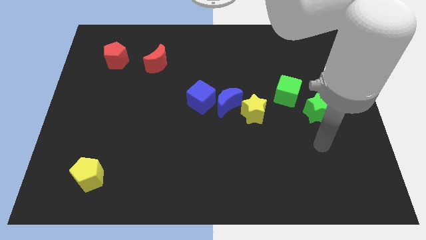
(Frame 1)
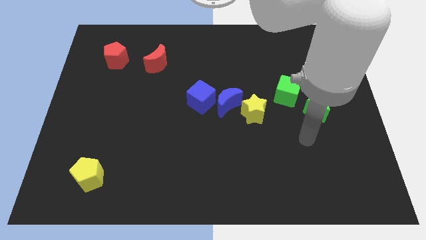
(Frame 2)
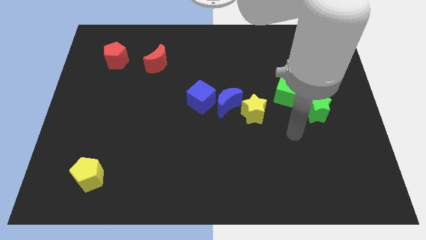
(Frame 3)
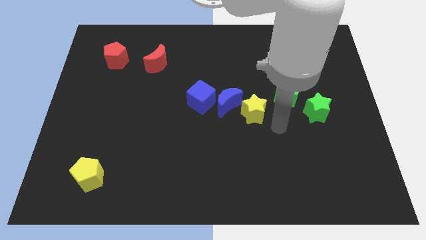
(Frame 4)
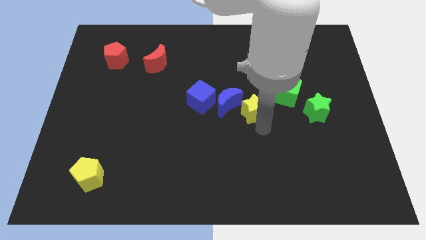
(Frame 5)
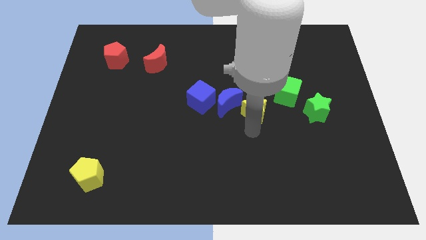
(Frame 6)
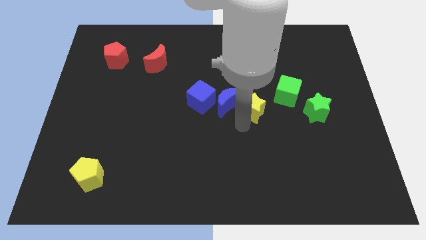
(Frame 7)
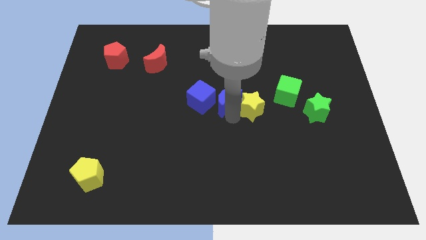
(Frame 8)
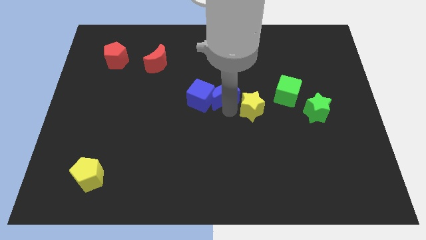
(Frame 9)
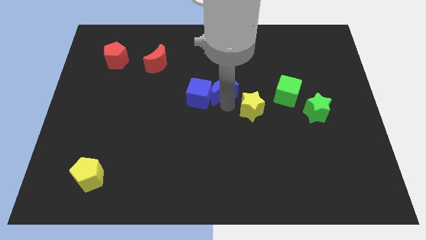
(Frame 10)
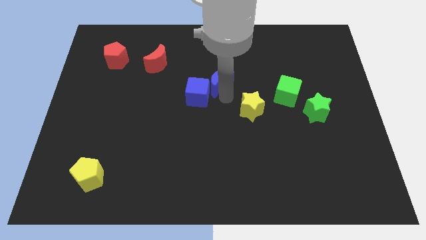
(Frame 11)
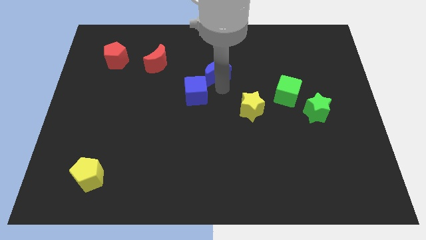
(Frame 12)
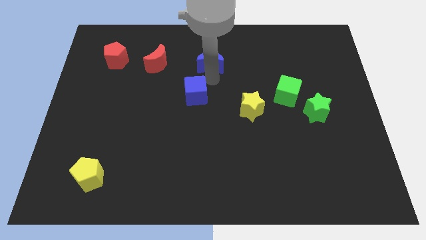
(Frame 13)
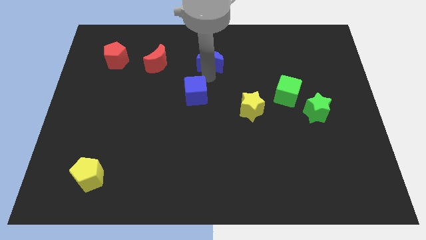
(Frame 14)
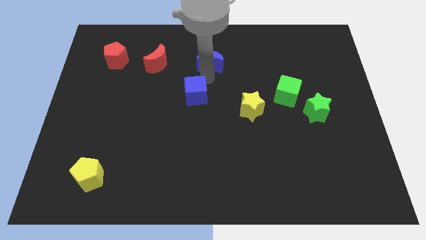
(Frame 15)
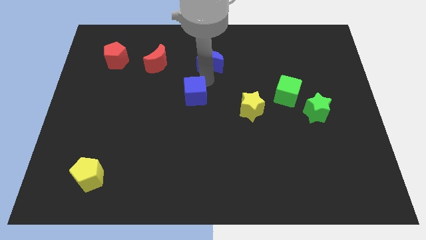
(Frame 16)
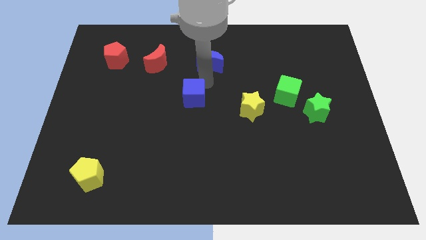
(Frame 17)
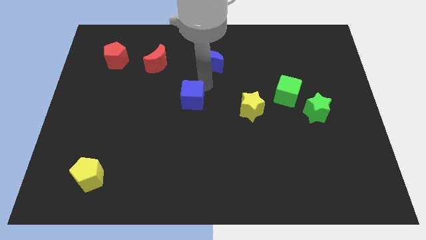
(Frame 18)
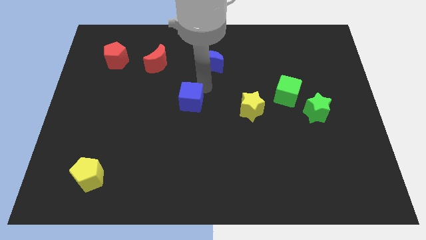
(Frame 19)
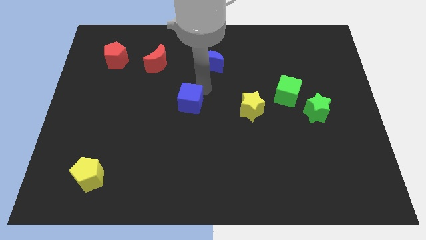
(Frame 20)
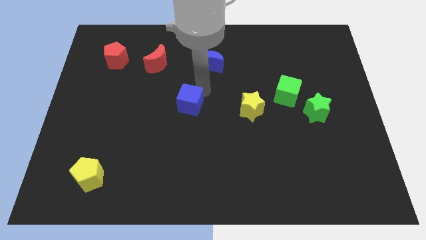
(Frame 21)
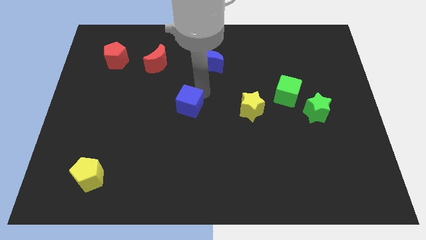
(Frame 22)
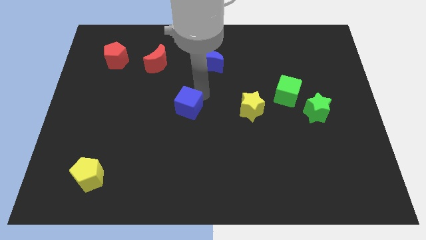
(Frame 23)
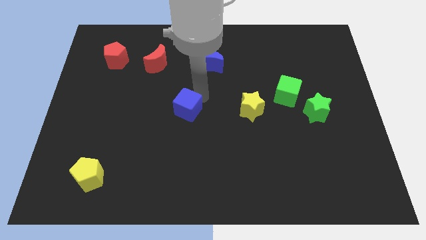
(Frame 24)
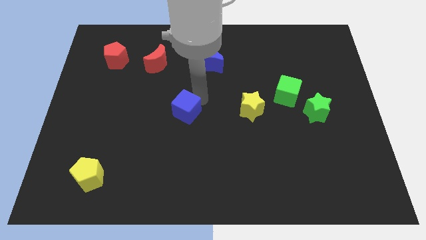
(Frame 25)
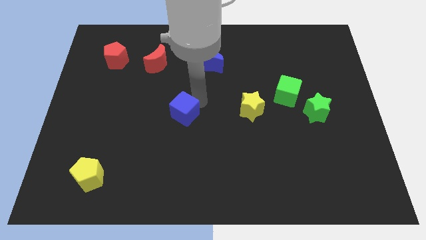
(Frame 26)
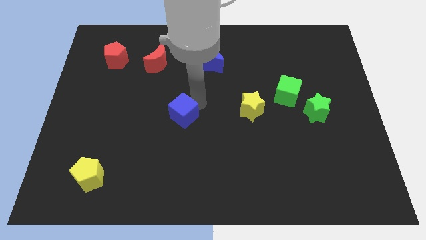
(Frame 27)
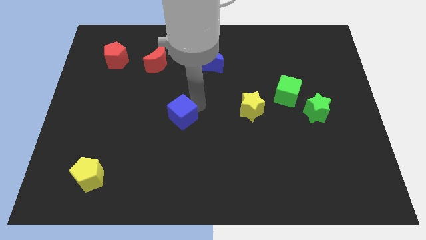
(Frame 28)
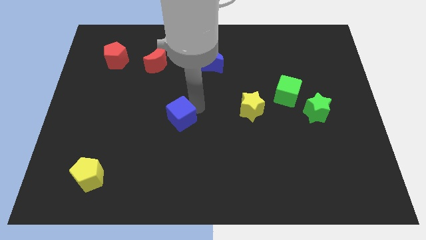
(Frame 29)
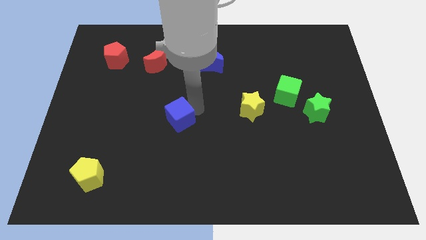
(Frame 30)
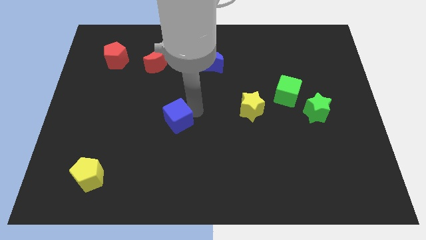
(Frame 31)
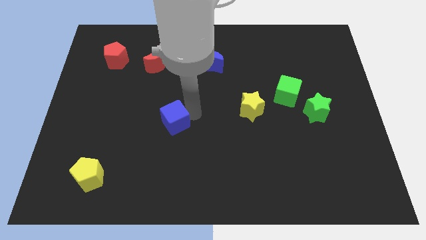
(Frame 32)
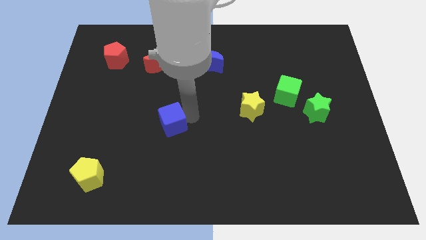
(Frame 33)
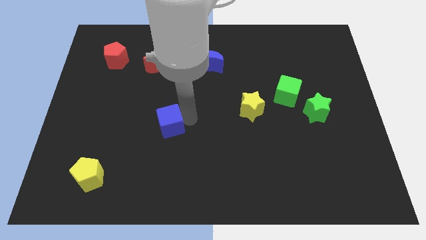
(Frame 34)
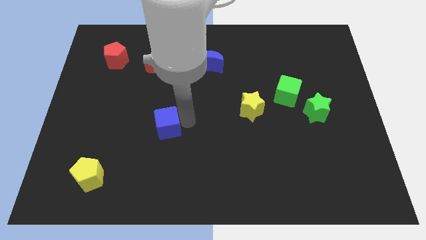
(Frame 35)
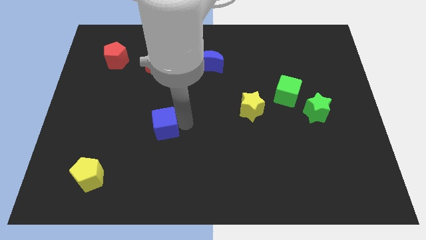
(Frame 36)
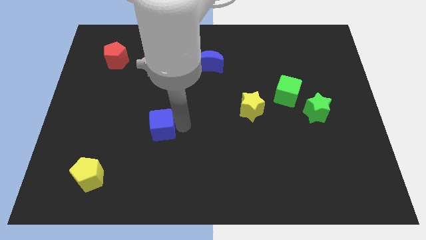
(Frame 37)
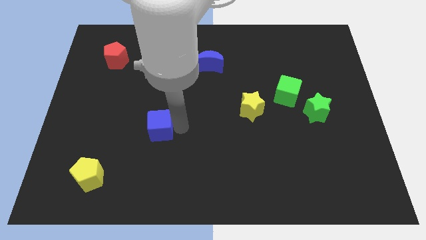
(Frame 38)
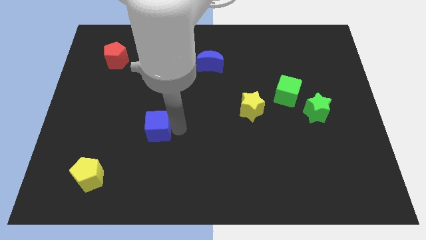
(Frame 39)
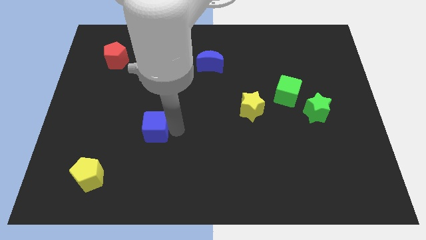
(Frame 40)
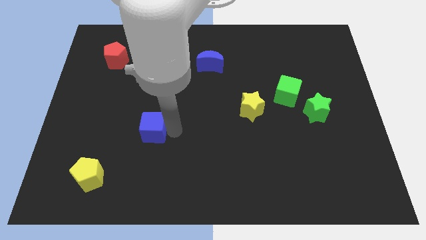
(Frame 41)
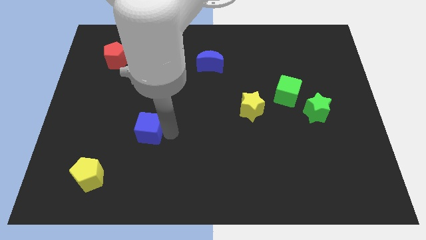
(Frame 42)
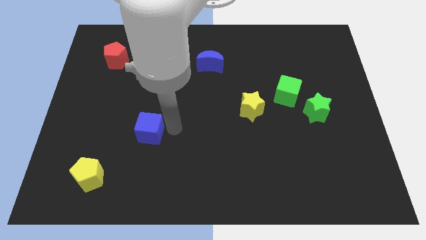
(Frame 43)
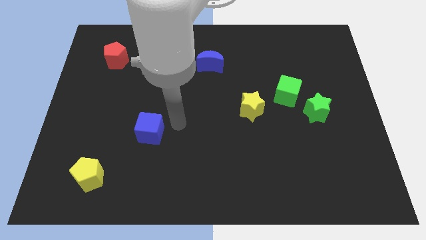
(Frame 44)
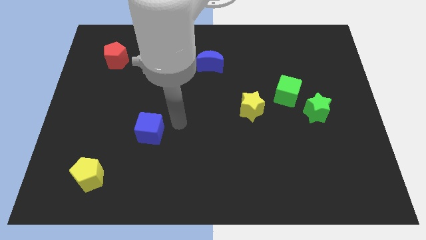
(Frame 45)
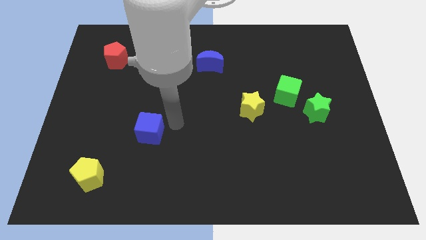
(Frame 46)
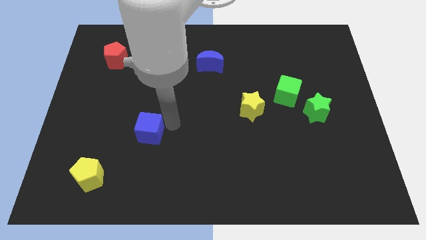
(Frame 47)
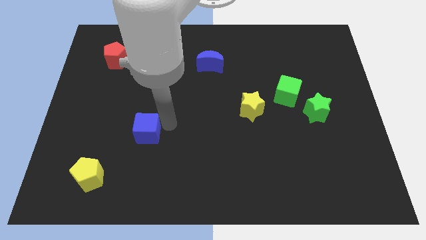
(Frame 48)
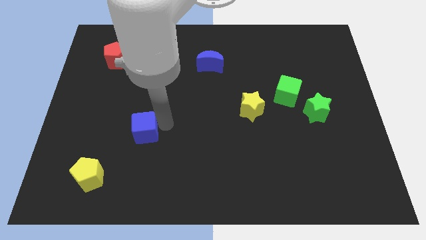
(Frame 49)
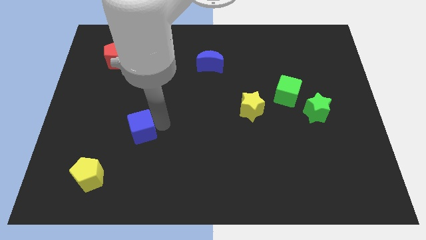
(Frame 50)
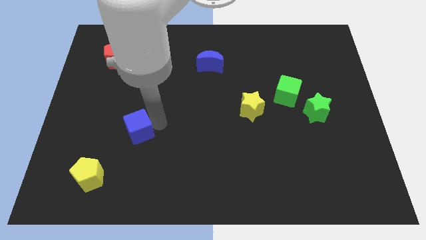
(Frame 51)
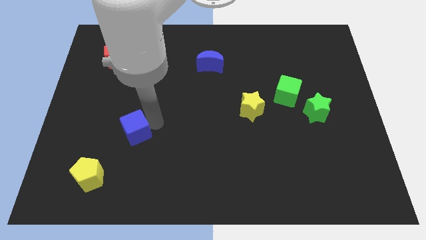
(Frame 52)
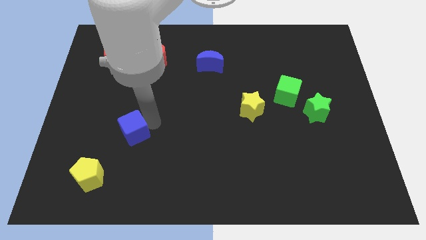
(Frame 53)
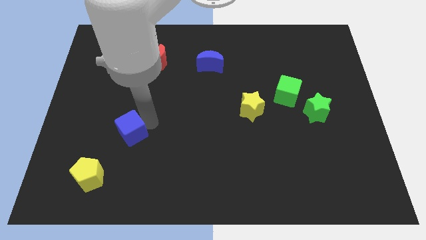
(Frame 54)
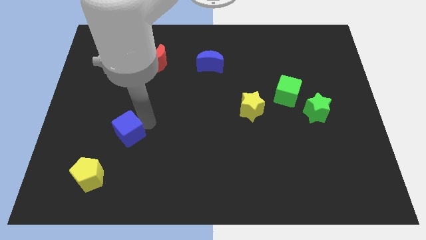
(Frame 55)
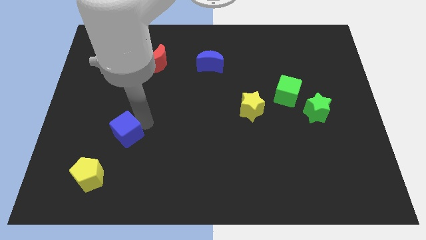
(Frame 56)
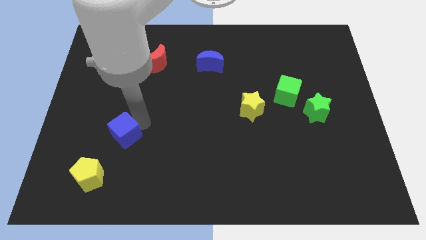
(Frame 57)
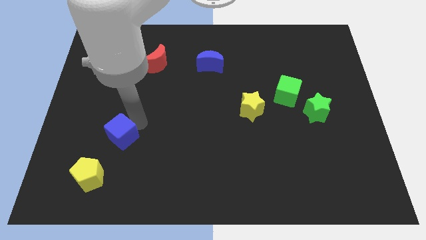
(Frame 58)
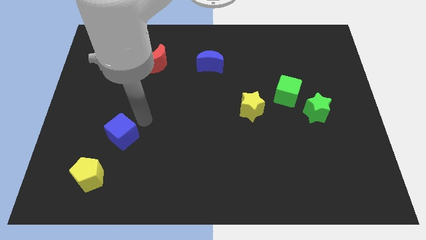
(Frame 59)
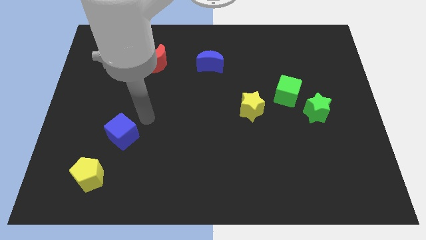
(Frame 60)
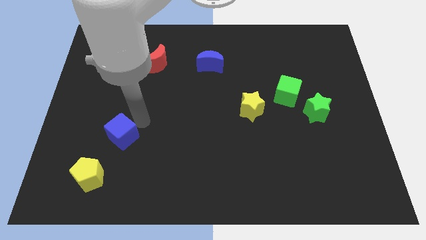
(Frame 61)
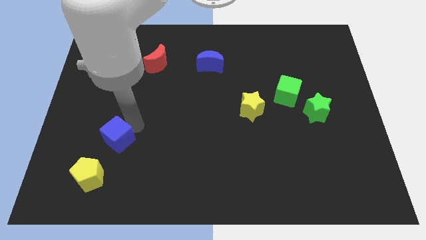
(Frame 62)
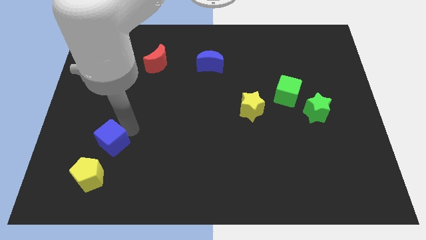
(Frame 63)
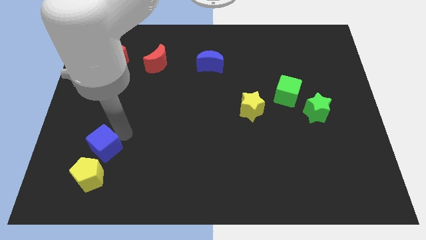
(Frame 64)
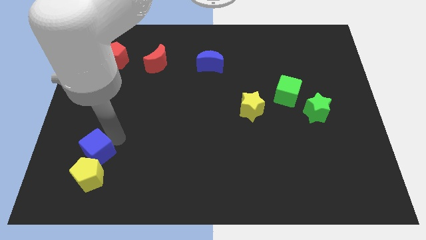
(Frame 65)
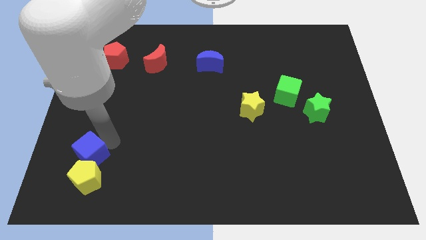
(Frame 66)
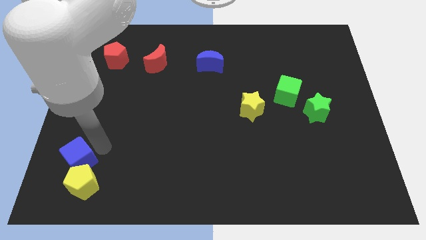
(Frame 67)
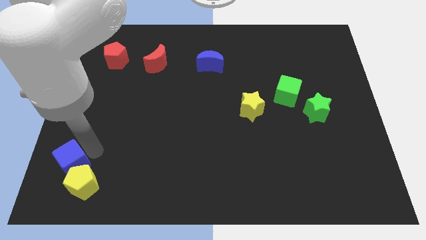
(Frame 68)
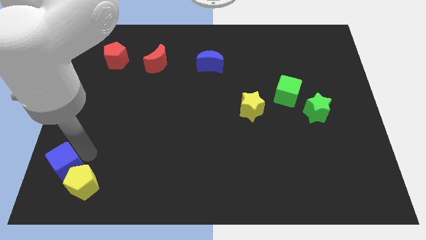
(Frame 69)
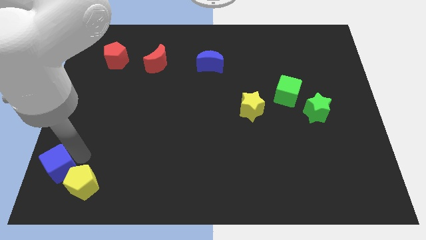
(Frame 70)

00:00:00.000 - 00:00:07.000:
slide the blue cube to the bottom left
